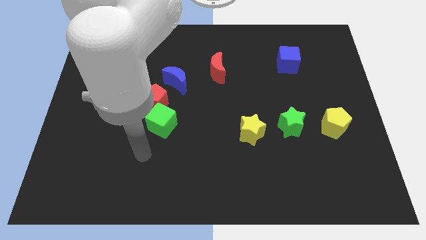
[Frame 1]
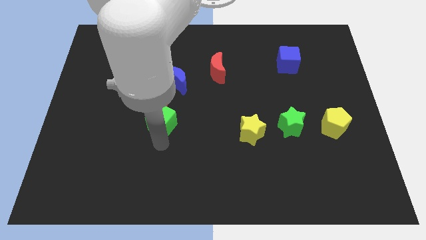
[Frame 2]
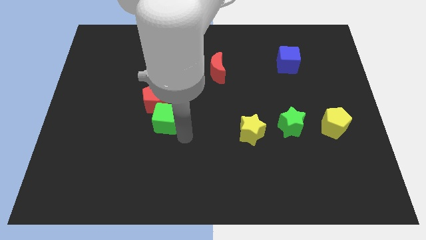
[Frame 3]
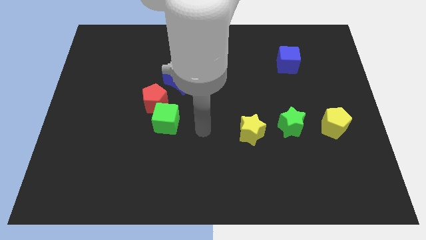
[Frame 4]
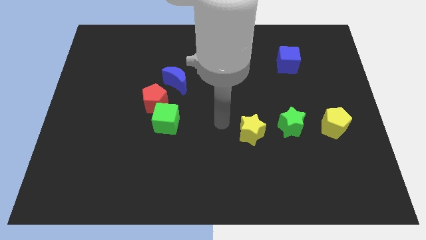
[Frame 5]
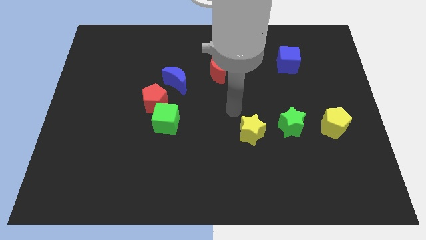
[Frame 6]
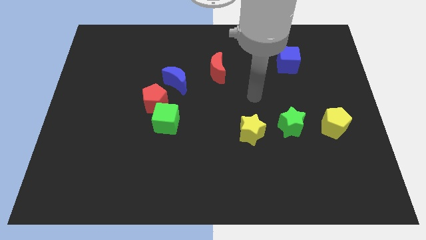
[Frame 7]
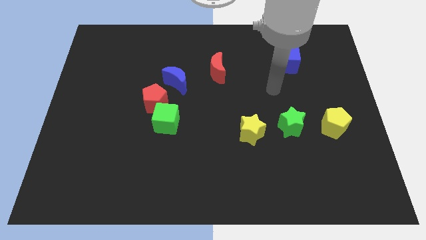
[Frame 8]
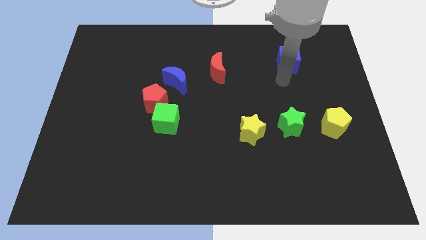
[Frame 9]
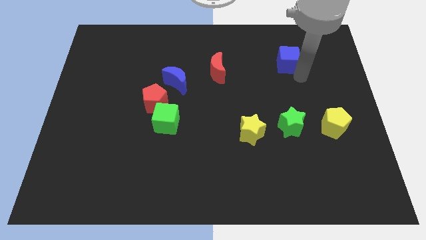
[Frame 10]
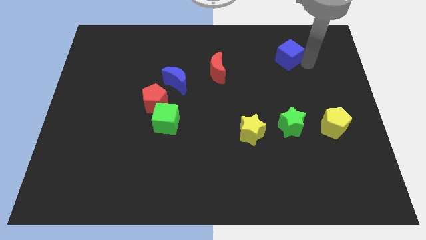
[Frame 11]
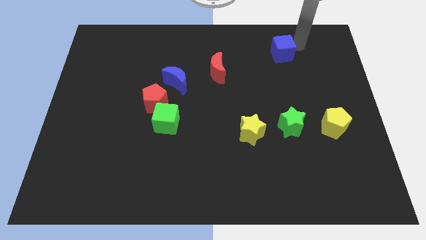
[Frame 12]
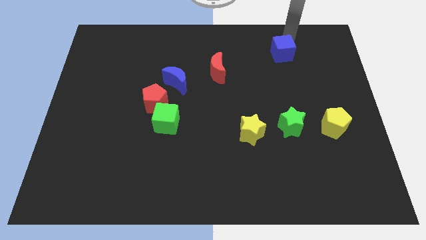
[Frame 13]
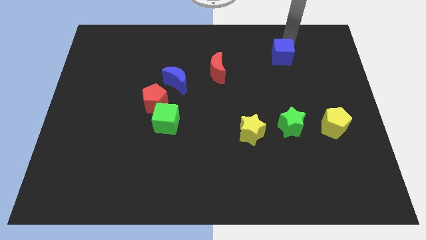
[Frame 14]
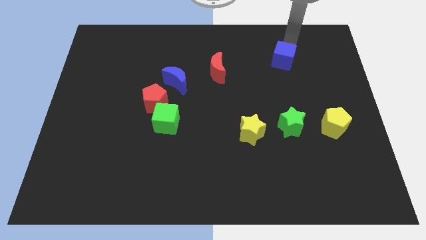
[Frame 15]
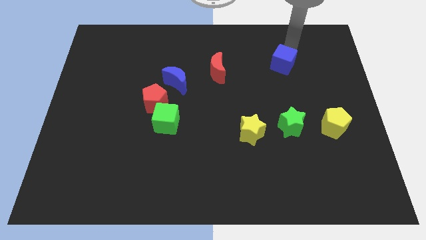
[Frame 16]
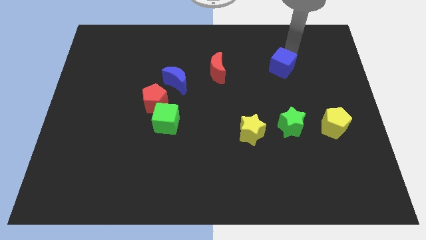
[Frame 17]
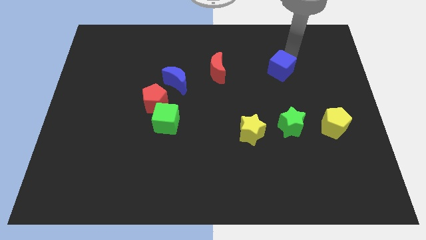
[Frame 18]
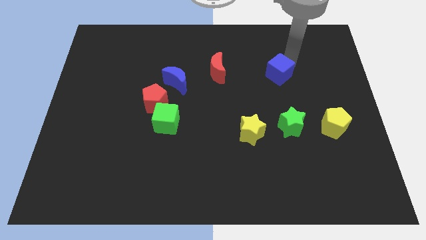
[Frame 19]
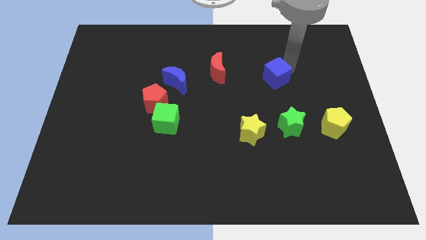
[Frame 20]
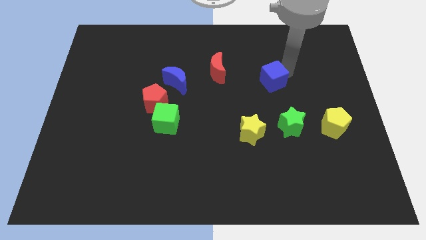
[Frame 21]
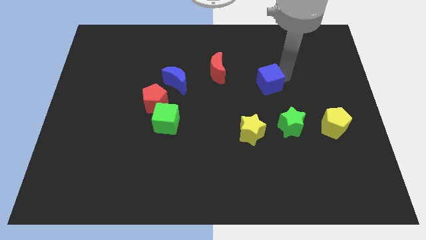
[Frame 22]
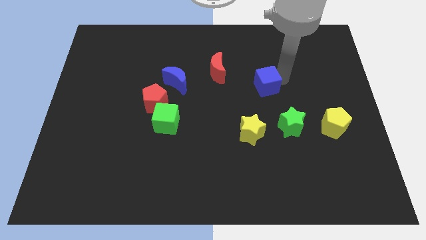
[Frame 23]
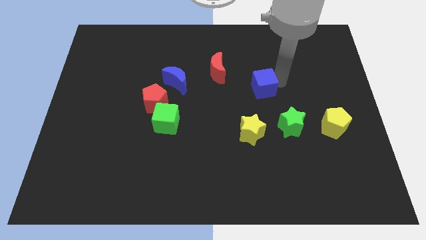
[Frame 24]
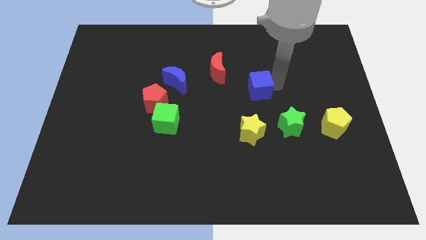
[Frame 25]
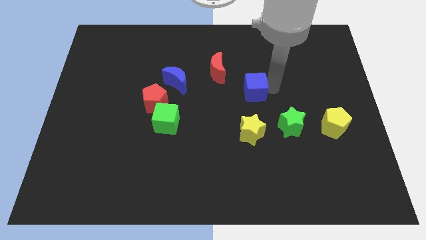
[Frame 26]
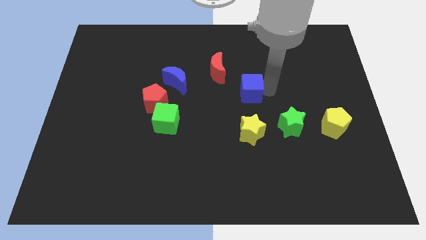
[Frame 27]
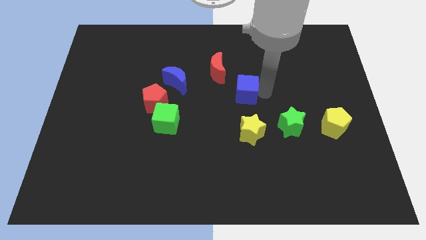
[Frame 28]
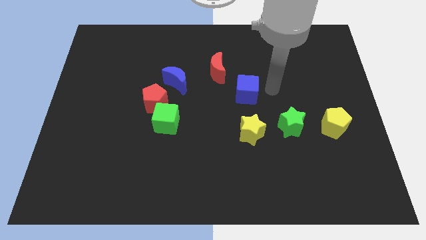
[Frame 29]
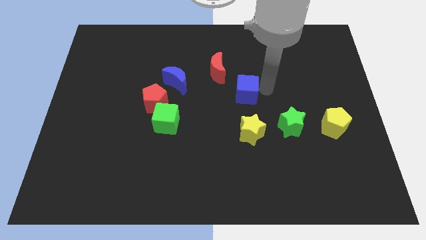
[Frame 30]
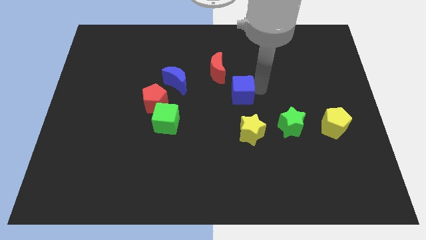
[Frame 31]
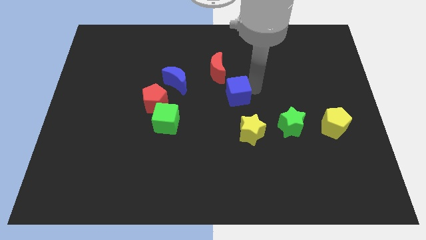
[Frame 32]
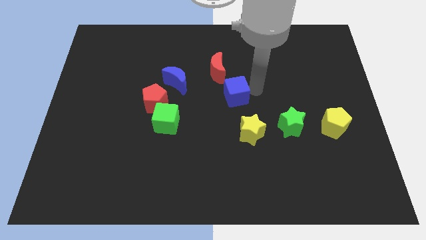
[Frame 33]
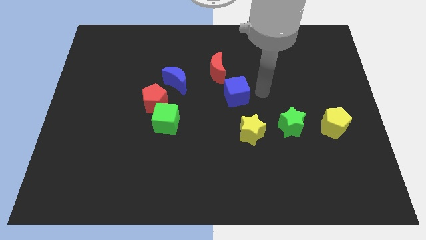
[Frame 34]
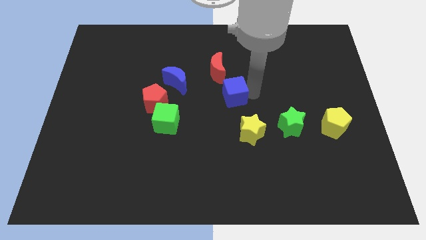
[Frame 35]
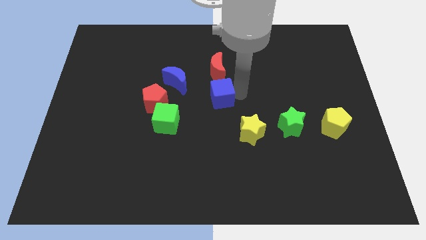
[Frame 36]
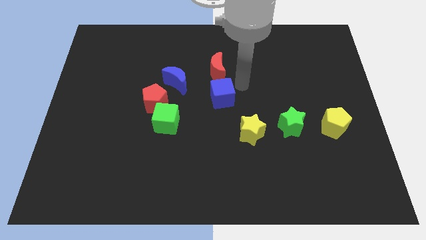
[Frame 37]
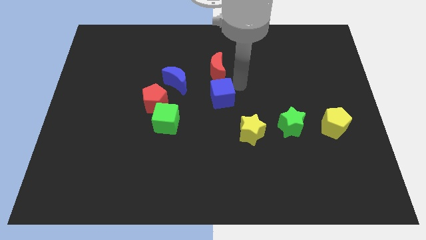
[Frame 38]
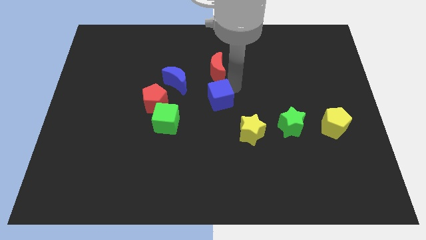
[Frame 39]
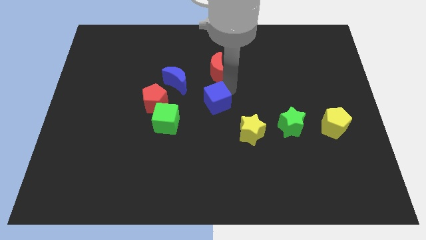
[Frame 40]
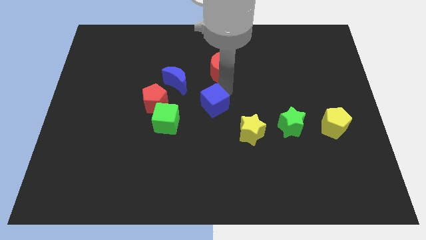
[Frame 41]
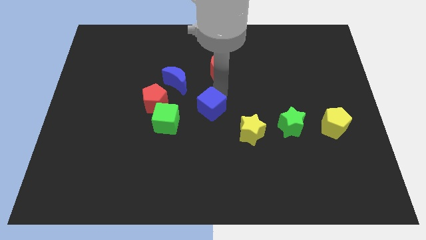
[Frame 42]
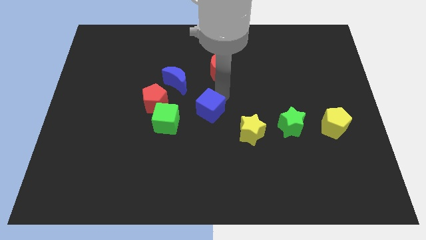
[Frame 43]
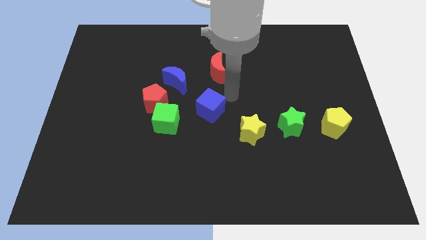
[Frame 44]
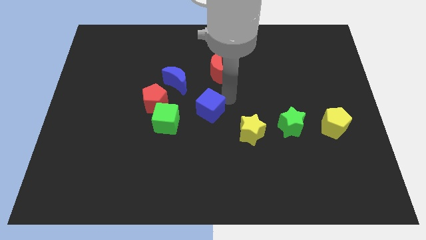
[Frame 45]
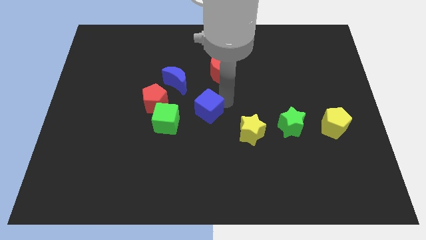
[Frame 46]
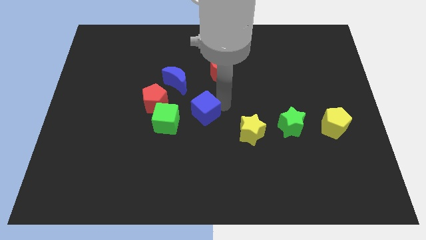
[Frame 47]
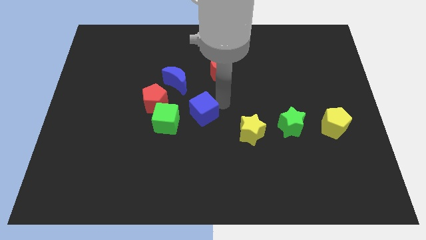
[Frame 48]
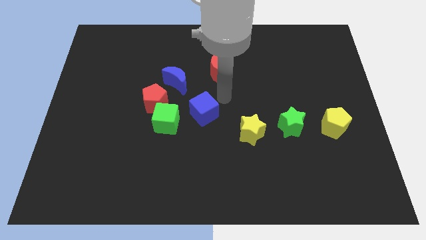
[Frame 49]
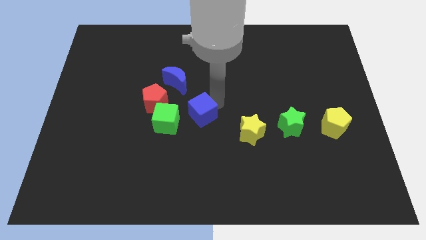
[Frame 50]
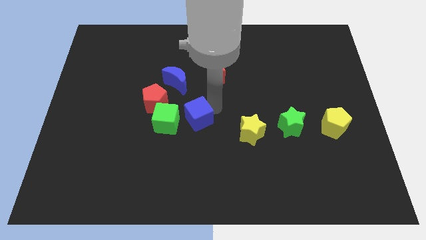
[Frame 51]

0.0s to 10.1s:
slide the blue cube to the bottom right of the red pentagon

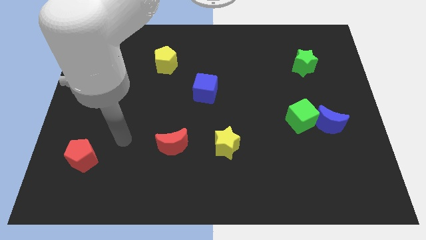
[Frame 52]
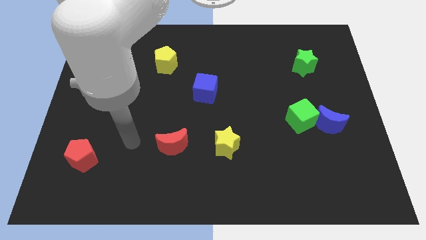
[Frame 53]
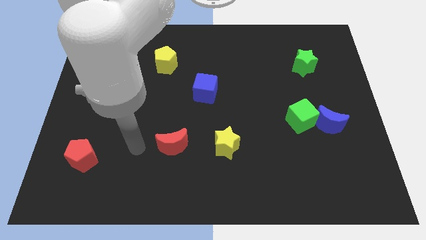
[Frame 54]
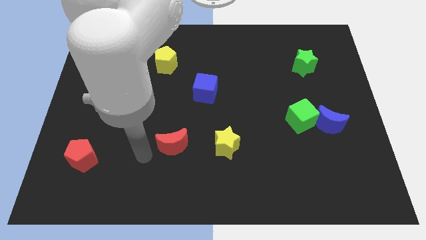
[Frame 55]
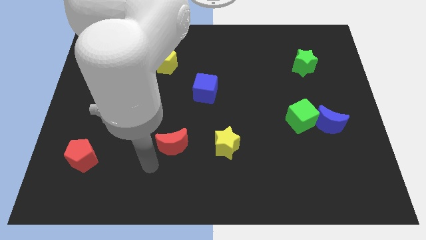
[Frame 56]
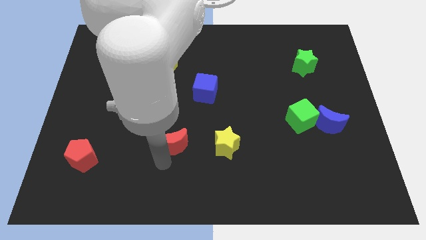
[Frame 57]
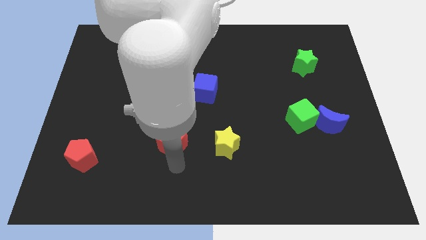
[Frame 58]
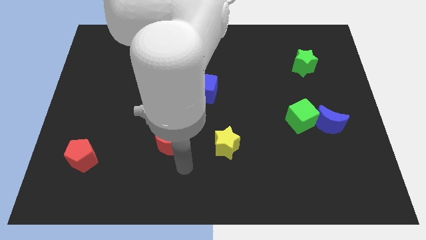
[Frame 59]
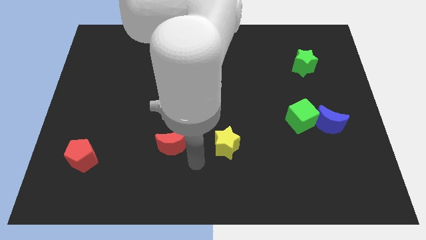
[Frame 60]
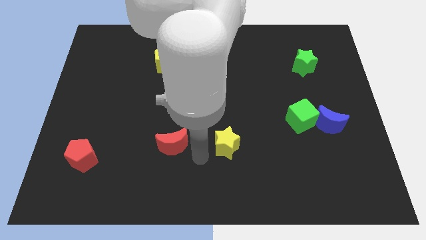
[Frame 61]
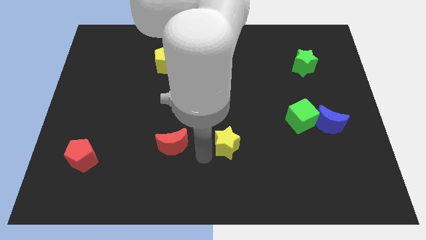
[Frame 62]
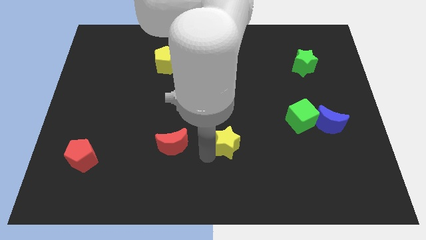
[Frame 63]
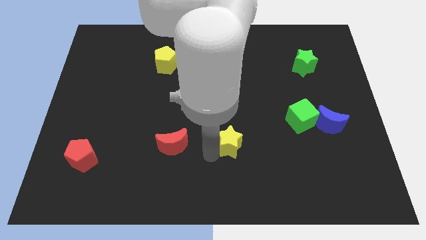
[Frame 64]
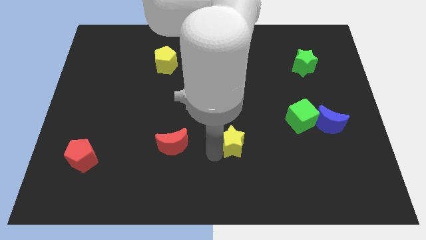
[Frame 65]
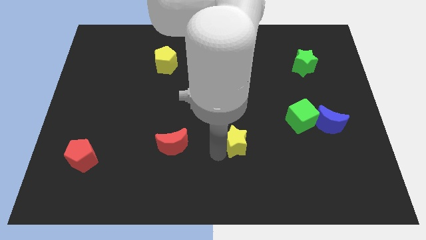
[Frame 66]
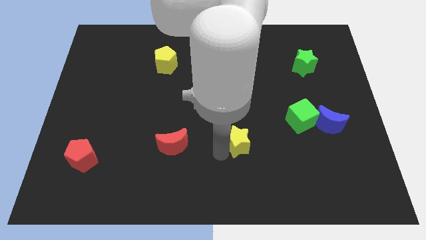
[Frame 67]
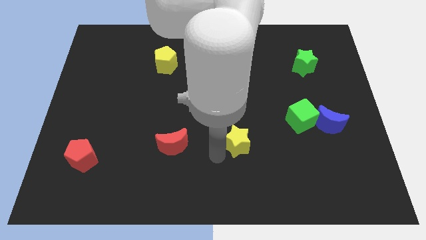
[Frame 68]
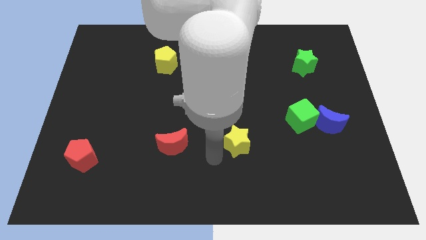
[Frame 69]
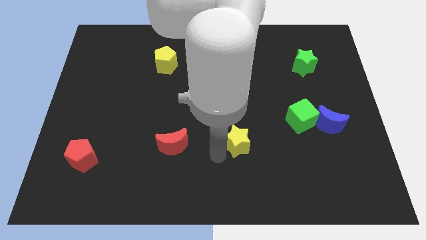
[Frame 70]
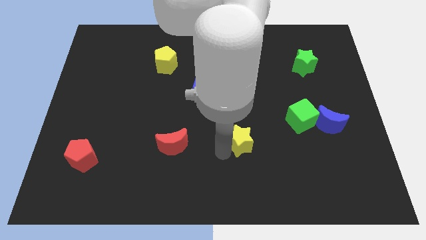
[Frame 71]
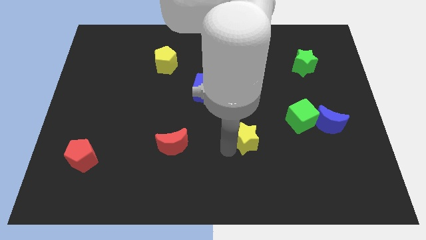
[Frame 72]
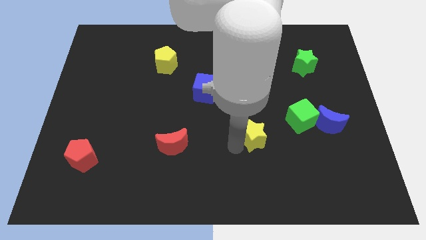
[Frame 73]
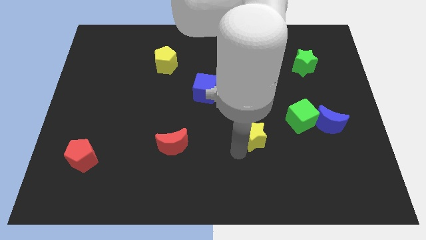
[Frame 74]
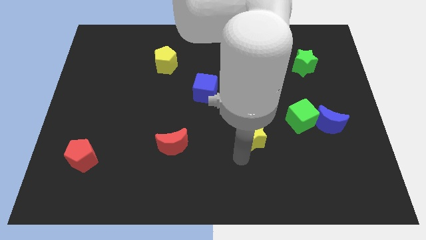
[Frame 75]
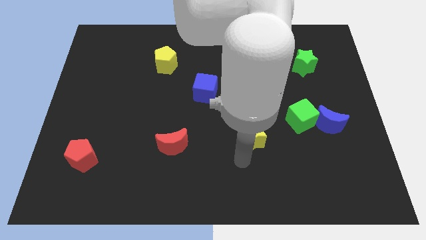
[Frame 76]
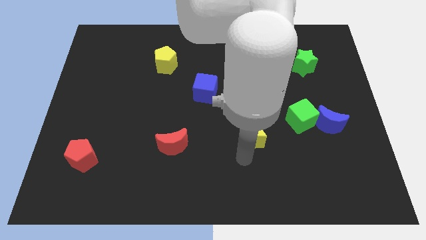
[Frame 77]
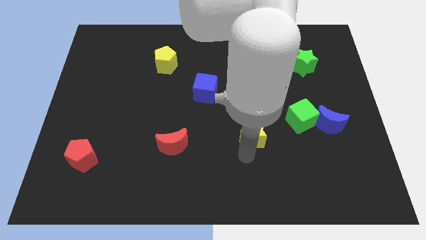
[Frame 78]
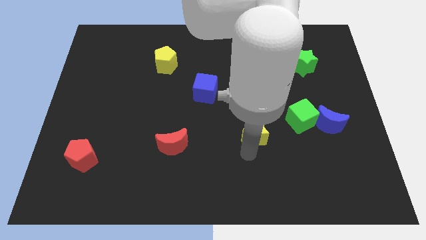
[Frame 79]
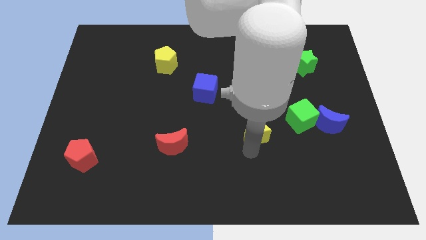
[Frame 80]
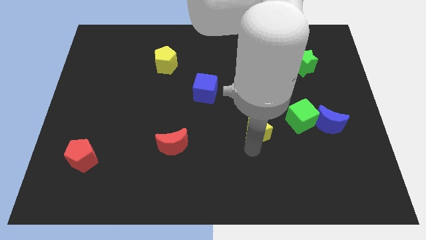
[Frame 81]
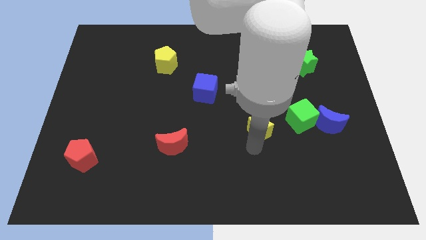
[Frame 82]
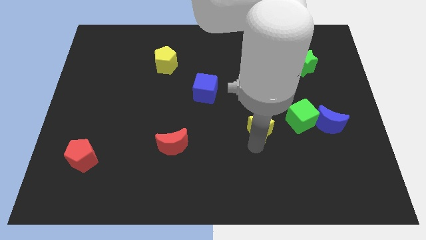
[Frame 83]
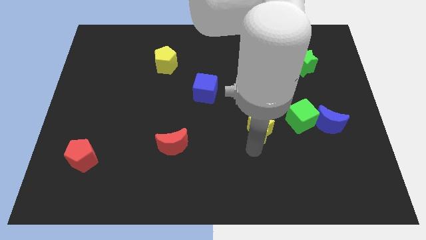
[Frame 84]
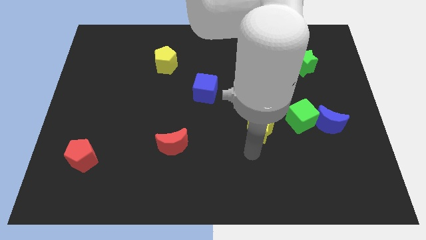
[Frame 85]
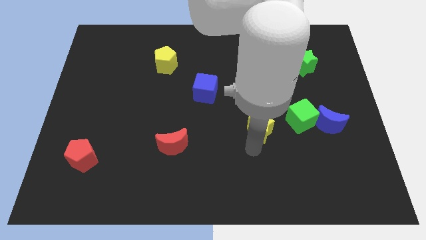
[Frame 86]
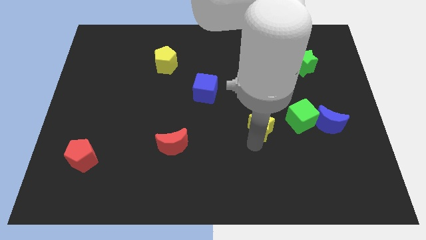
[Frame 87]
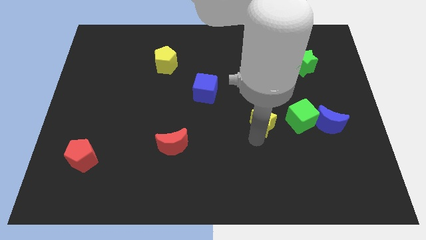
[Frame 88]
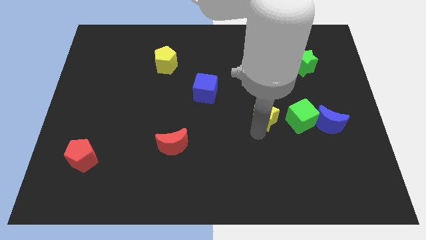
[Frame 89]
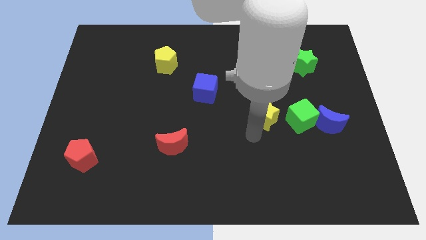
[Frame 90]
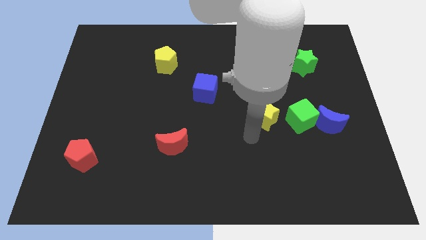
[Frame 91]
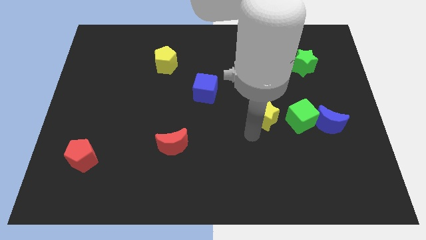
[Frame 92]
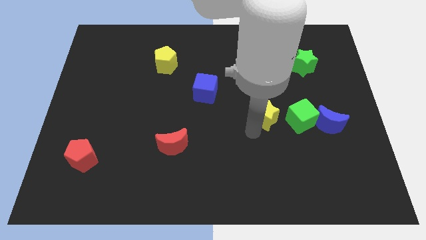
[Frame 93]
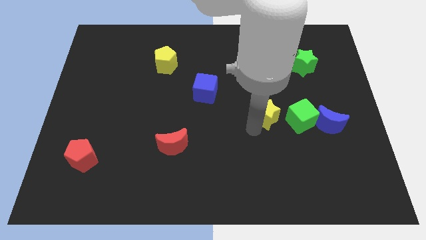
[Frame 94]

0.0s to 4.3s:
move the yellow star to the top left of the green cube
